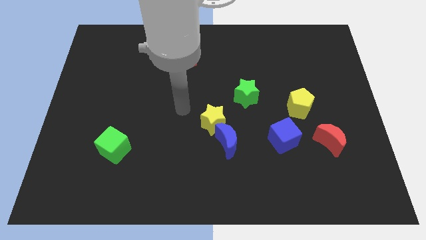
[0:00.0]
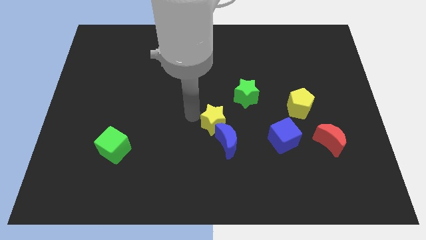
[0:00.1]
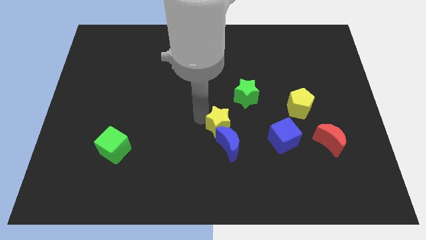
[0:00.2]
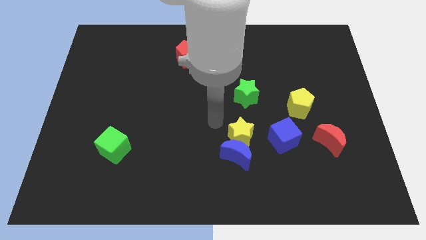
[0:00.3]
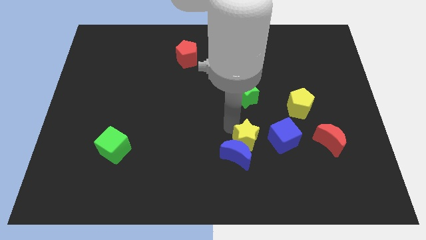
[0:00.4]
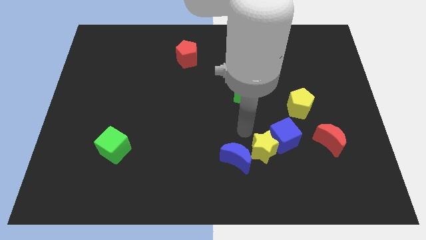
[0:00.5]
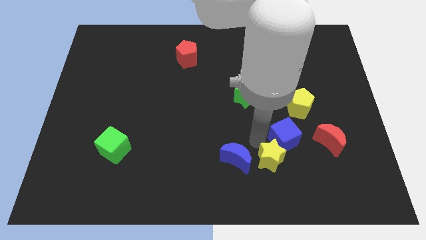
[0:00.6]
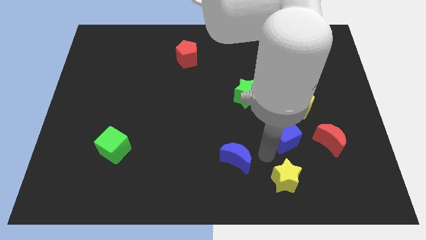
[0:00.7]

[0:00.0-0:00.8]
separate the blue moon from the yellow star

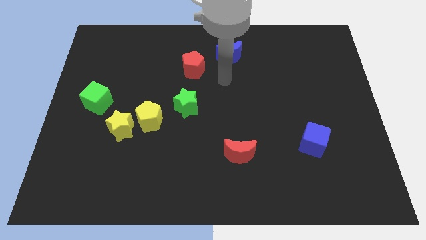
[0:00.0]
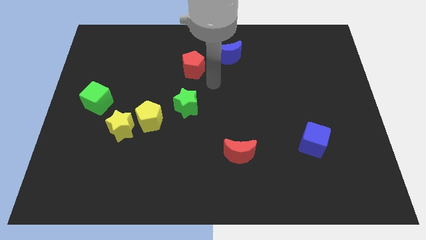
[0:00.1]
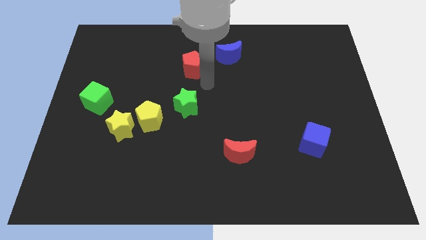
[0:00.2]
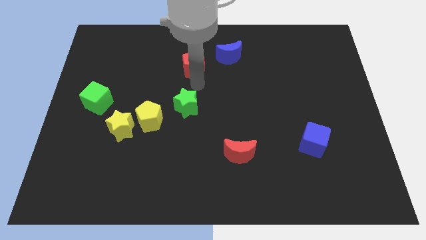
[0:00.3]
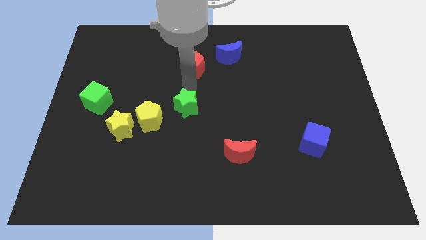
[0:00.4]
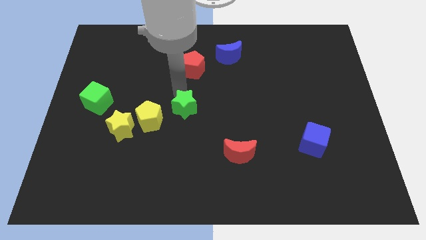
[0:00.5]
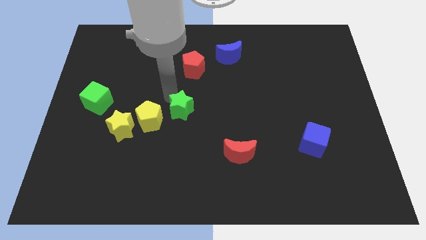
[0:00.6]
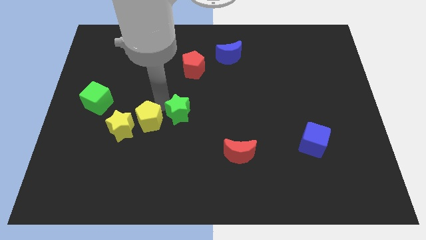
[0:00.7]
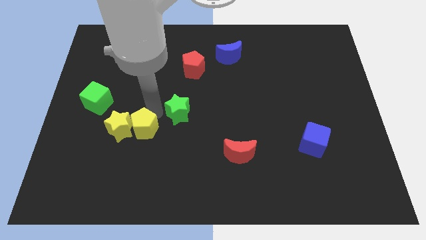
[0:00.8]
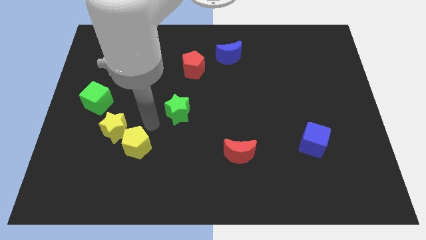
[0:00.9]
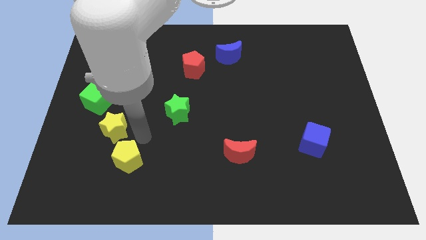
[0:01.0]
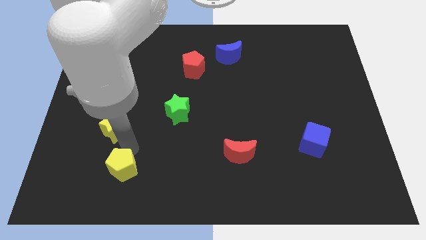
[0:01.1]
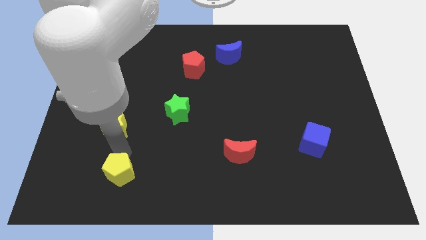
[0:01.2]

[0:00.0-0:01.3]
move the yellow star away from the yellow pentagon

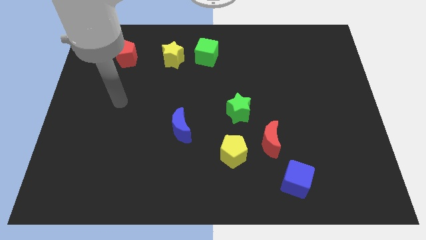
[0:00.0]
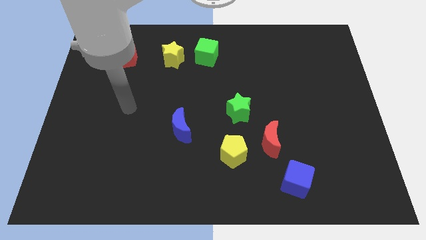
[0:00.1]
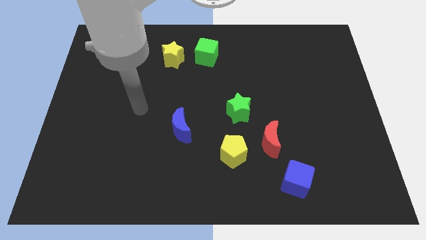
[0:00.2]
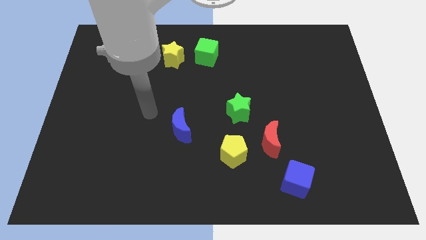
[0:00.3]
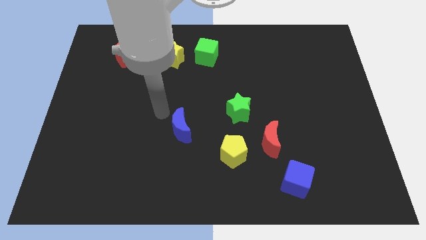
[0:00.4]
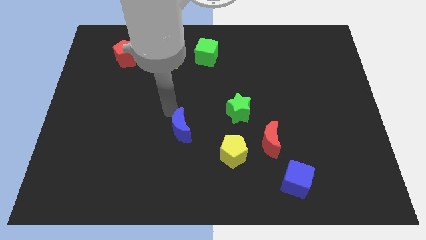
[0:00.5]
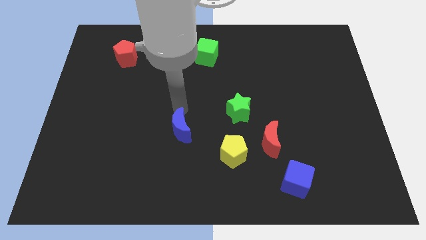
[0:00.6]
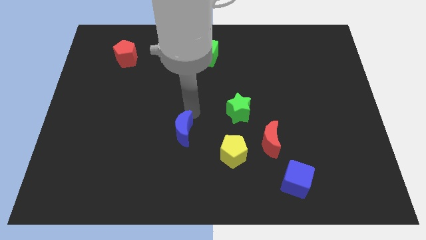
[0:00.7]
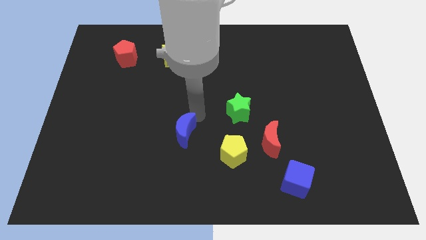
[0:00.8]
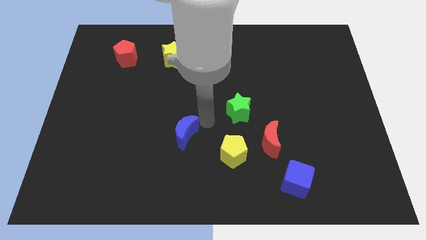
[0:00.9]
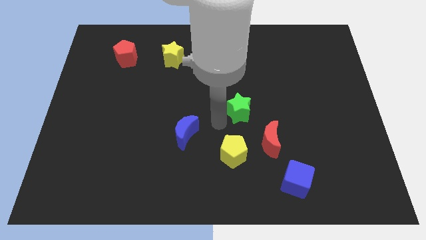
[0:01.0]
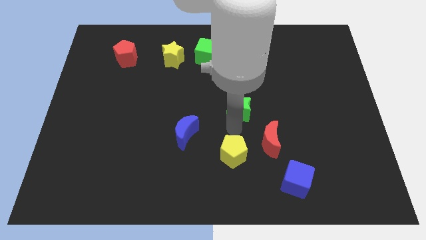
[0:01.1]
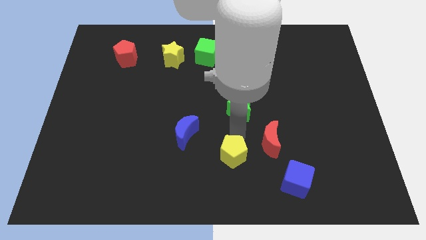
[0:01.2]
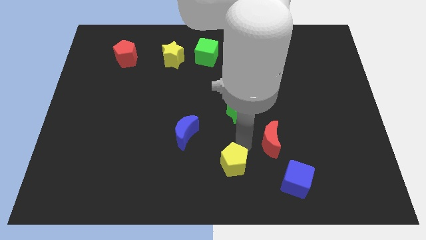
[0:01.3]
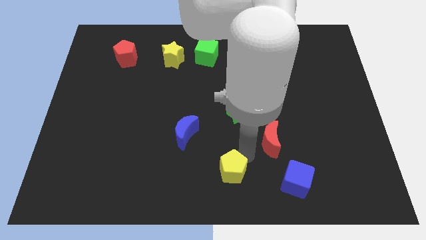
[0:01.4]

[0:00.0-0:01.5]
move the red moon away from the yellow pentagon

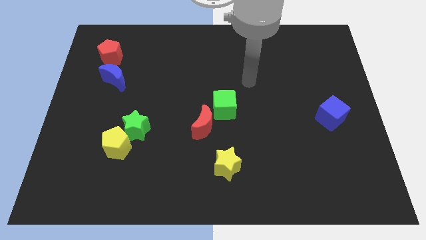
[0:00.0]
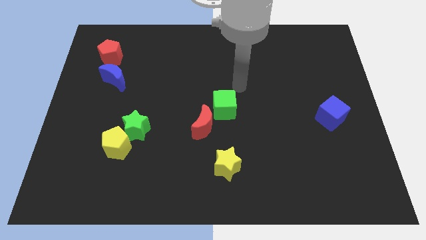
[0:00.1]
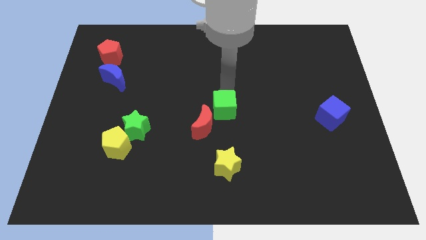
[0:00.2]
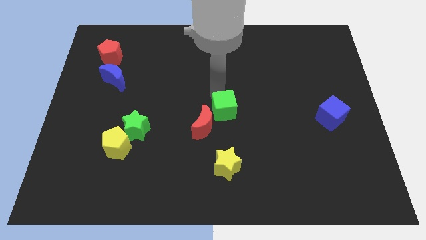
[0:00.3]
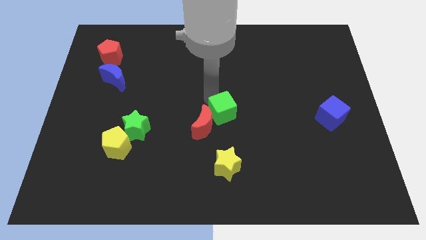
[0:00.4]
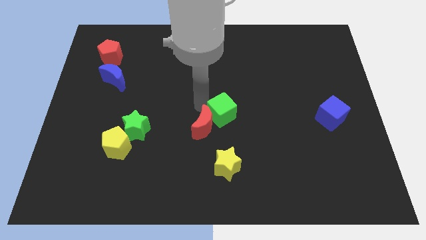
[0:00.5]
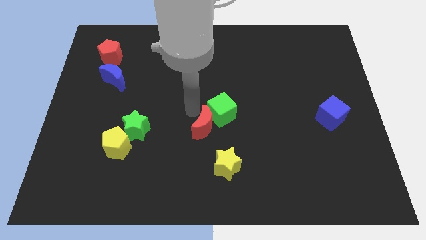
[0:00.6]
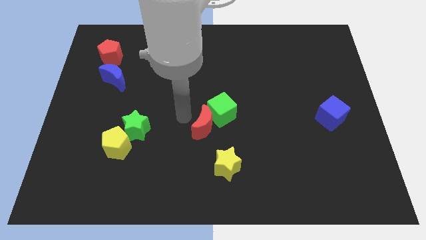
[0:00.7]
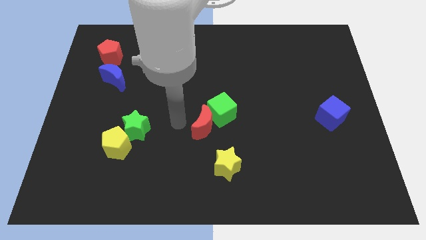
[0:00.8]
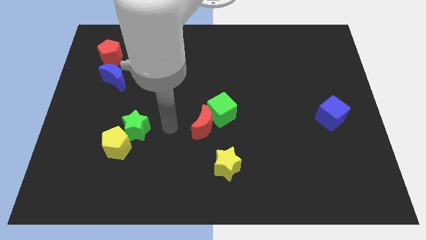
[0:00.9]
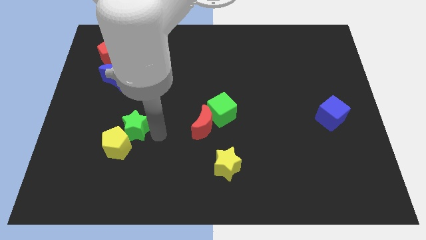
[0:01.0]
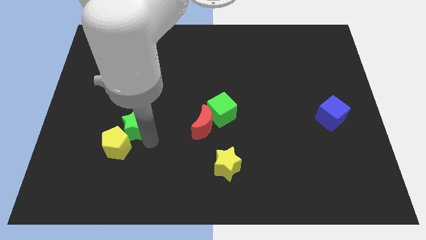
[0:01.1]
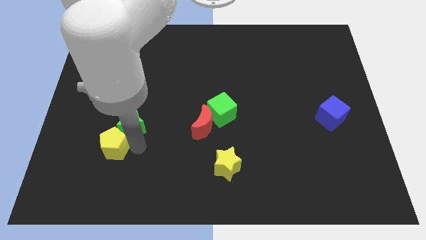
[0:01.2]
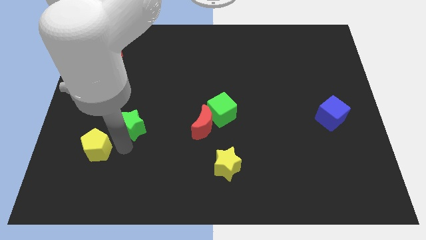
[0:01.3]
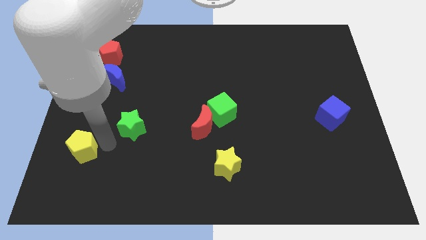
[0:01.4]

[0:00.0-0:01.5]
move the green star away from the yellow pentagon

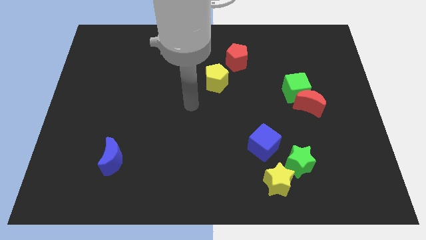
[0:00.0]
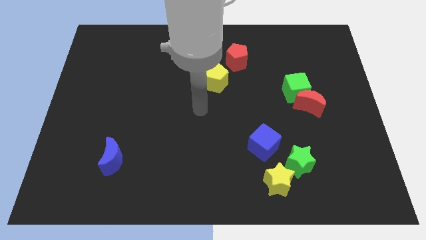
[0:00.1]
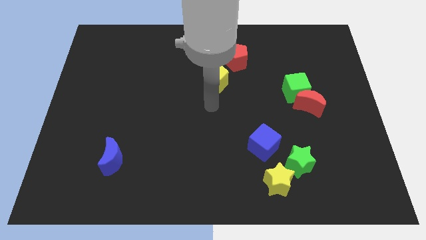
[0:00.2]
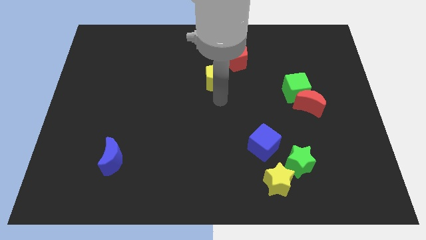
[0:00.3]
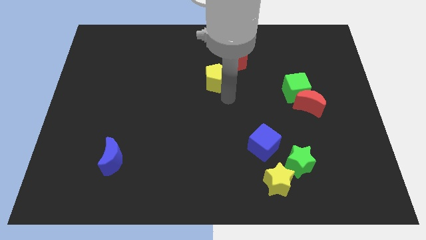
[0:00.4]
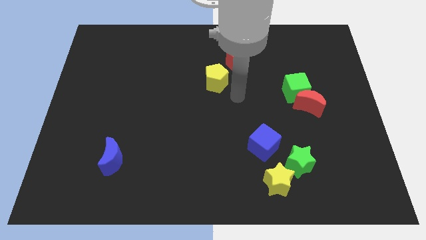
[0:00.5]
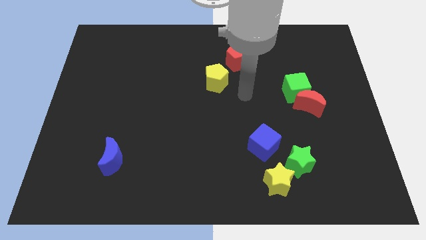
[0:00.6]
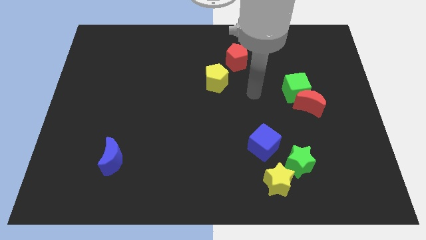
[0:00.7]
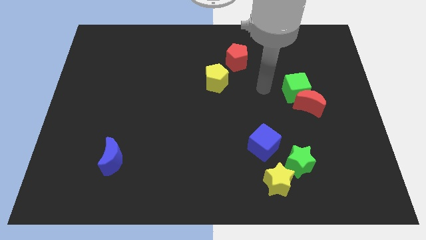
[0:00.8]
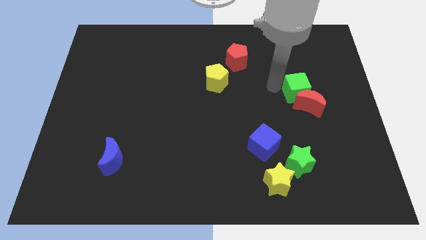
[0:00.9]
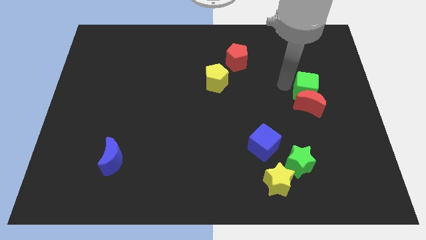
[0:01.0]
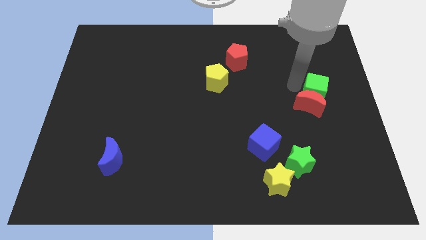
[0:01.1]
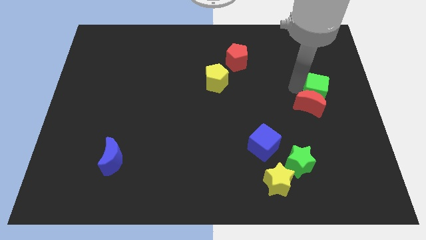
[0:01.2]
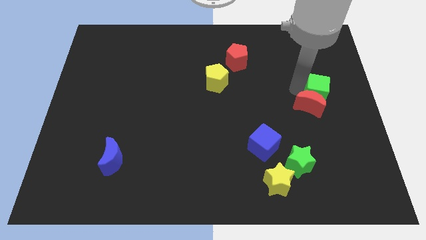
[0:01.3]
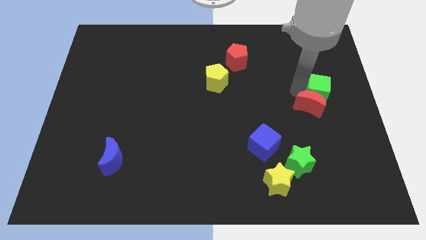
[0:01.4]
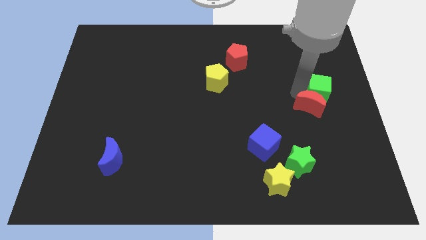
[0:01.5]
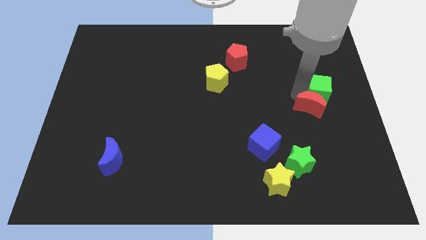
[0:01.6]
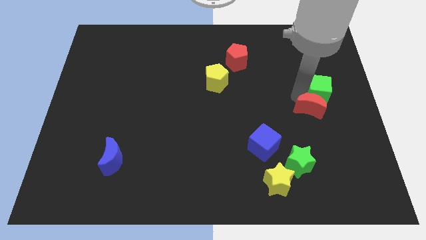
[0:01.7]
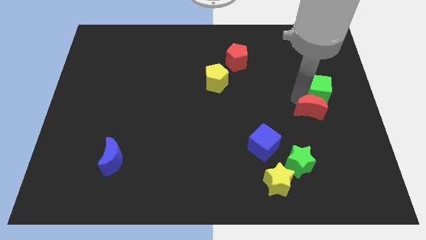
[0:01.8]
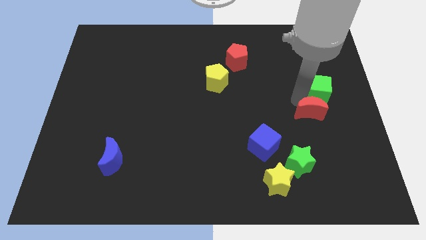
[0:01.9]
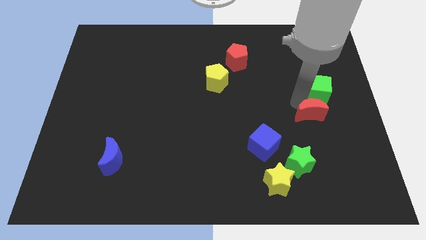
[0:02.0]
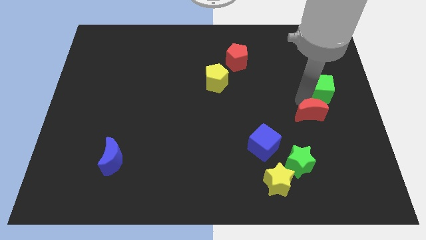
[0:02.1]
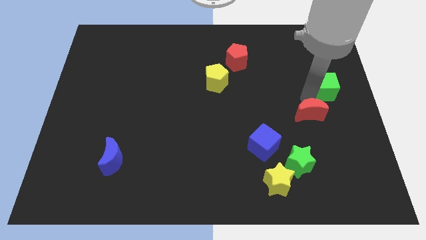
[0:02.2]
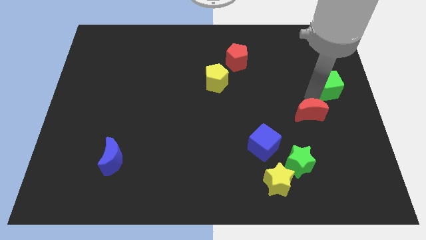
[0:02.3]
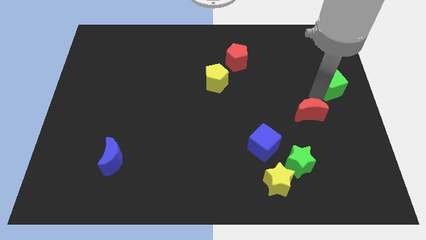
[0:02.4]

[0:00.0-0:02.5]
separate the red moon from the green cube

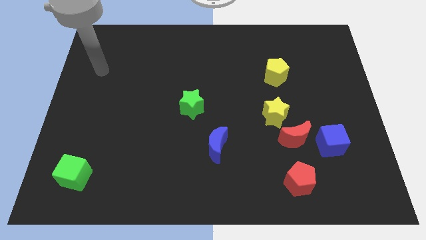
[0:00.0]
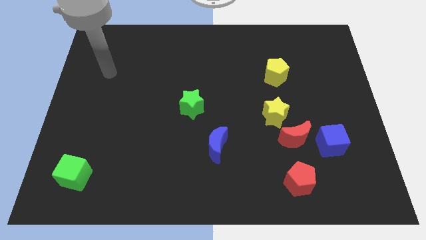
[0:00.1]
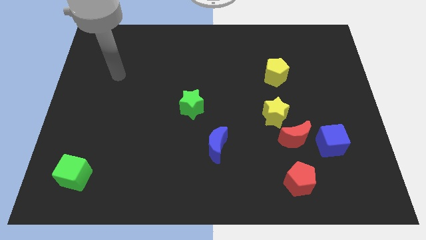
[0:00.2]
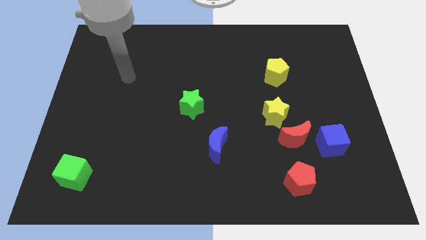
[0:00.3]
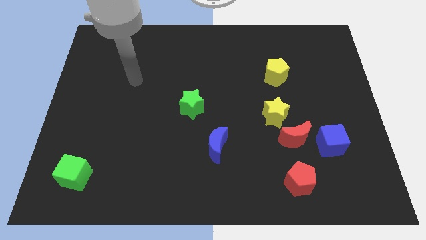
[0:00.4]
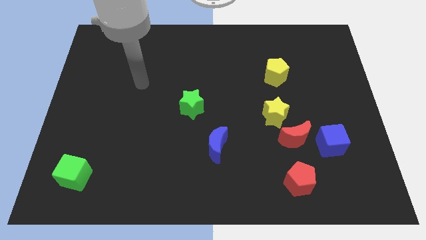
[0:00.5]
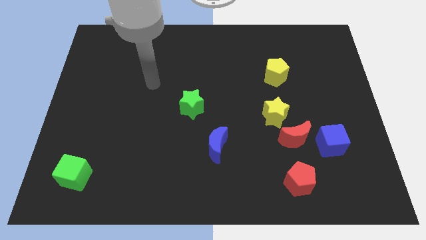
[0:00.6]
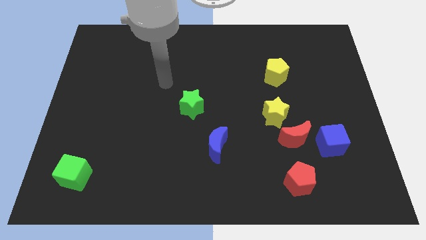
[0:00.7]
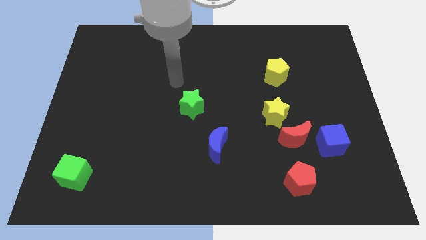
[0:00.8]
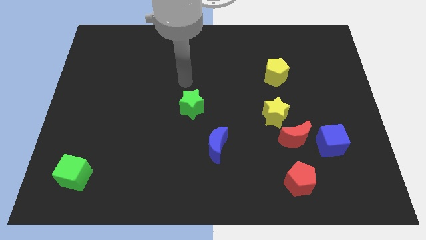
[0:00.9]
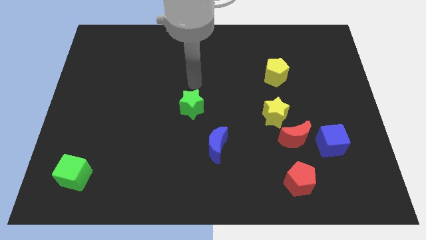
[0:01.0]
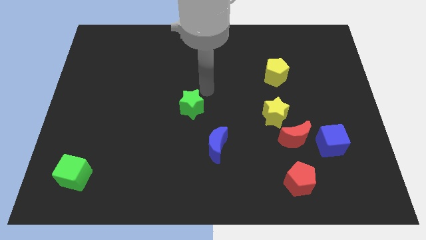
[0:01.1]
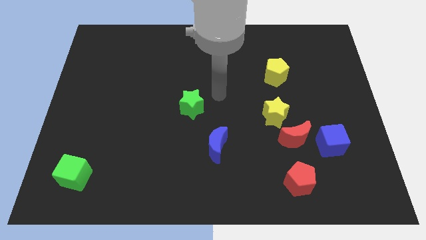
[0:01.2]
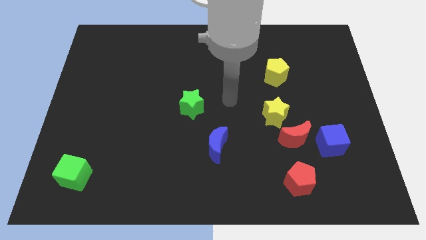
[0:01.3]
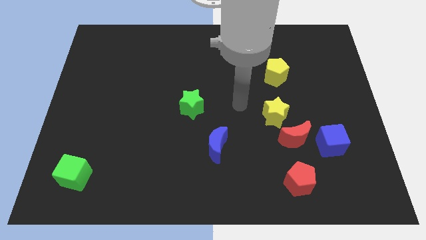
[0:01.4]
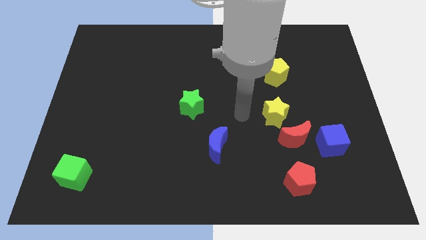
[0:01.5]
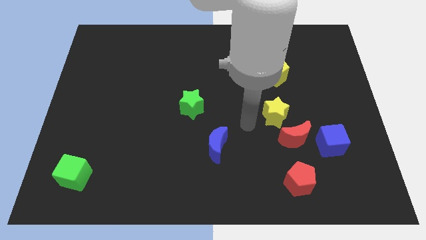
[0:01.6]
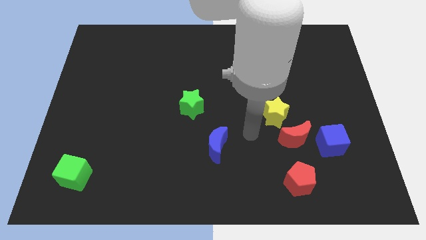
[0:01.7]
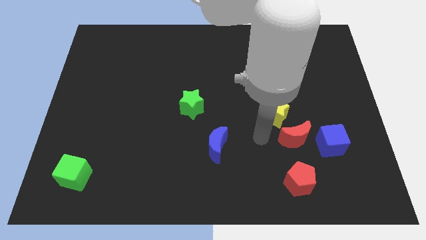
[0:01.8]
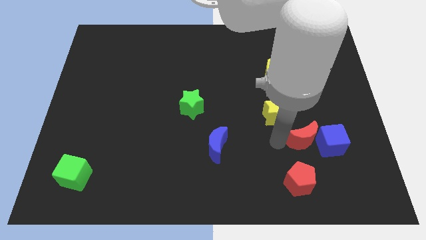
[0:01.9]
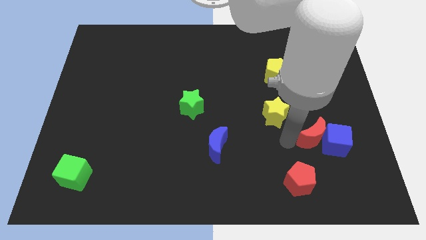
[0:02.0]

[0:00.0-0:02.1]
pull the yellow star apart from the red moon
